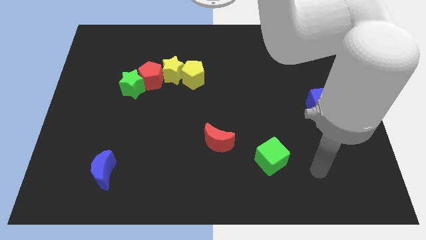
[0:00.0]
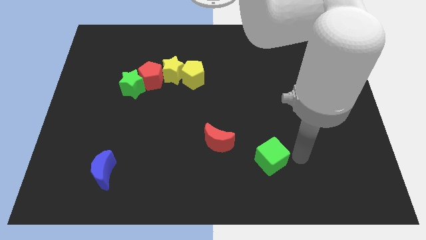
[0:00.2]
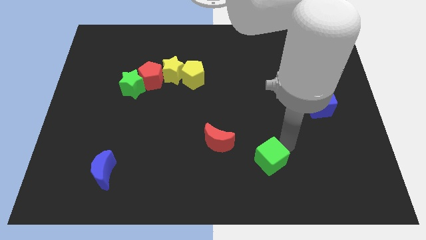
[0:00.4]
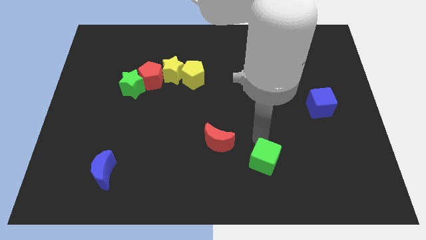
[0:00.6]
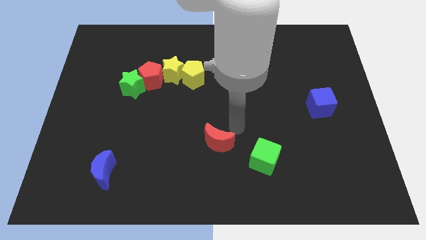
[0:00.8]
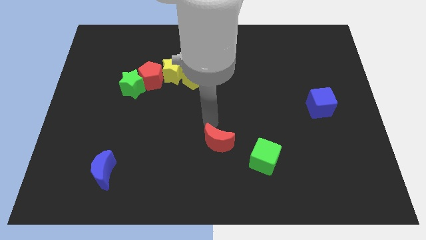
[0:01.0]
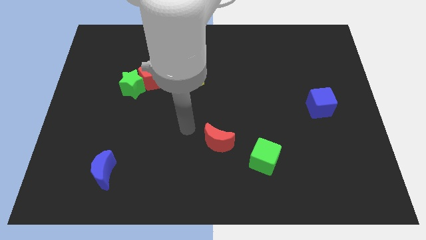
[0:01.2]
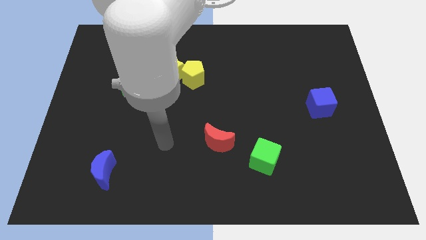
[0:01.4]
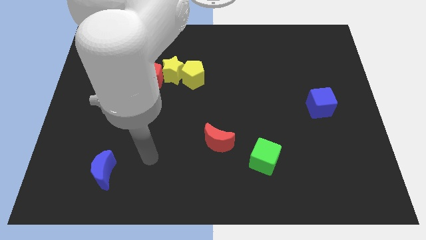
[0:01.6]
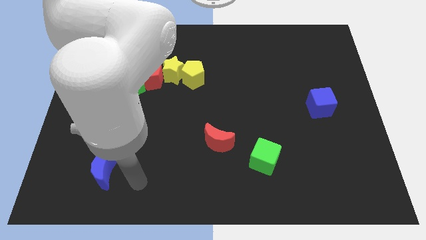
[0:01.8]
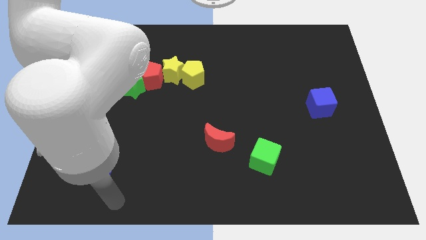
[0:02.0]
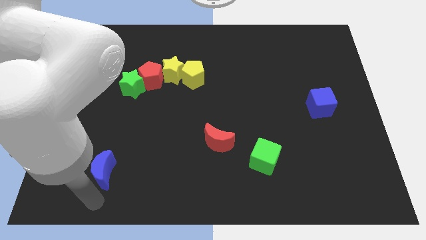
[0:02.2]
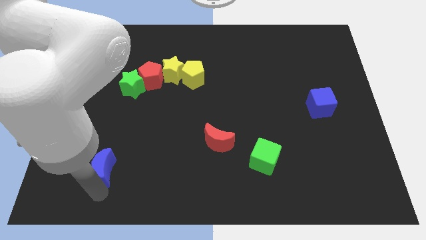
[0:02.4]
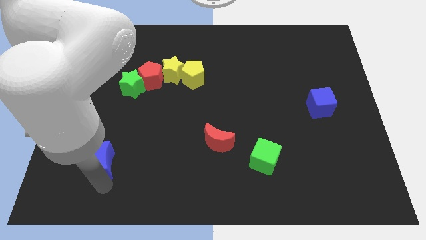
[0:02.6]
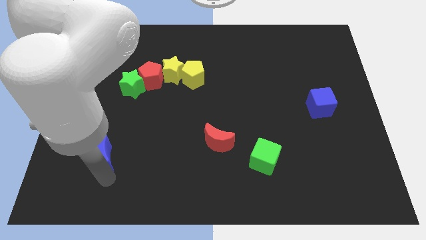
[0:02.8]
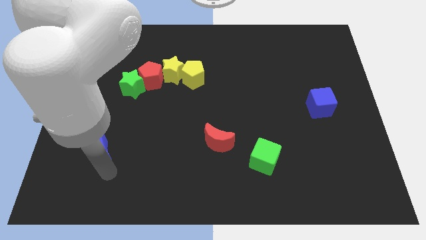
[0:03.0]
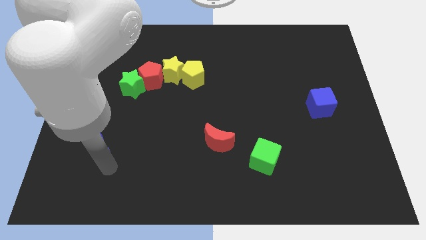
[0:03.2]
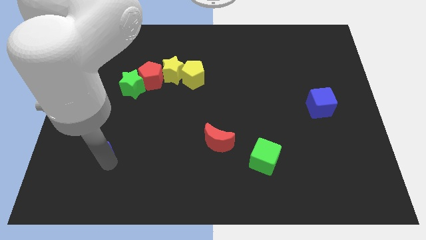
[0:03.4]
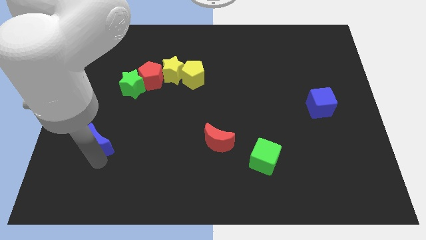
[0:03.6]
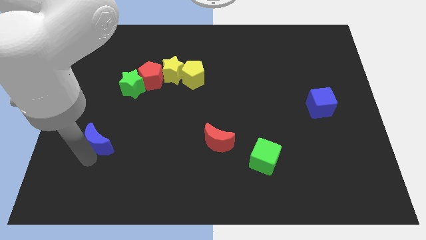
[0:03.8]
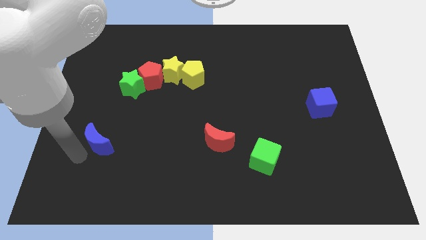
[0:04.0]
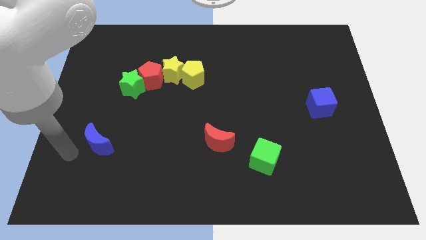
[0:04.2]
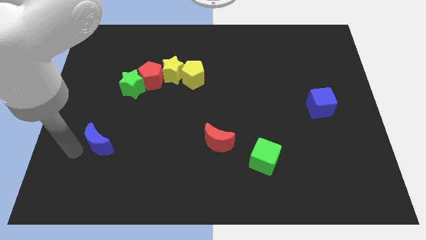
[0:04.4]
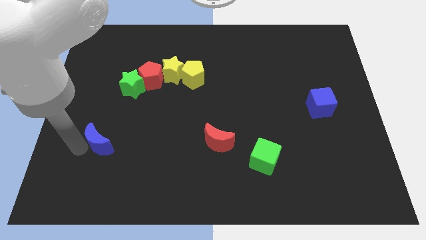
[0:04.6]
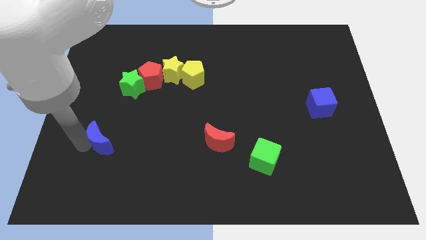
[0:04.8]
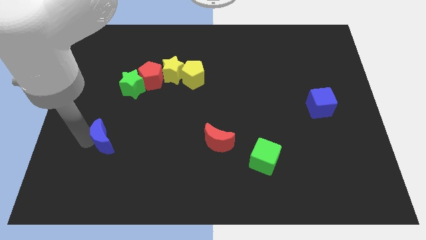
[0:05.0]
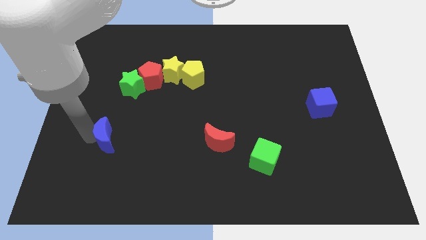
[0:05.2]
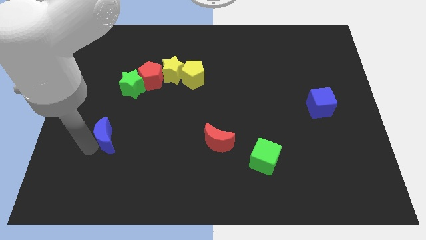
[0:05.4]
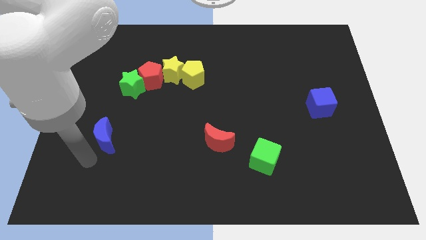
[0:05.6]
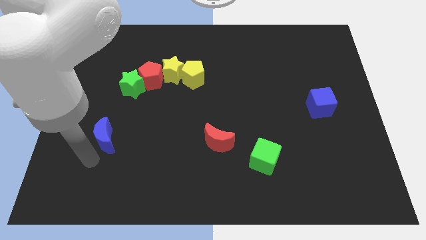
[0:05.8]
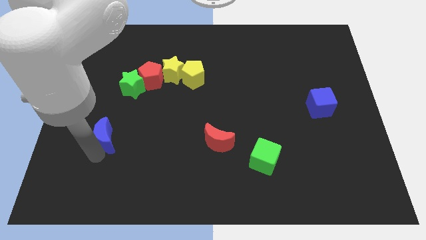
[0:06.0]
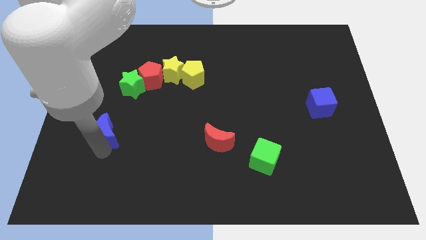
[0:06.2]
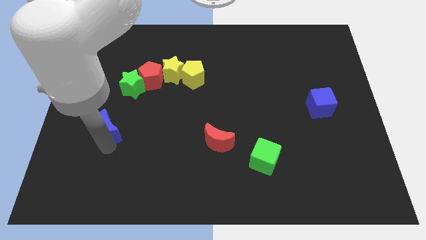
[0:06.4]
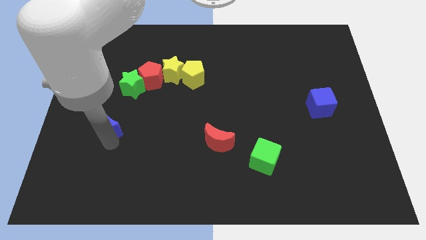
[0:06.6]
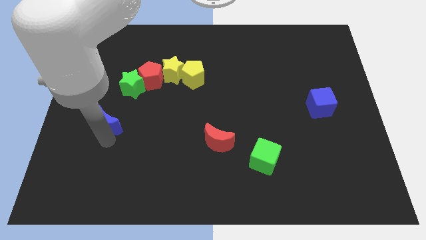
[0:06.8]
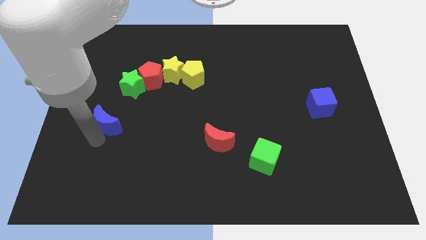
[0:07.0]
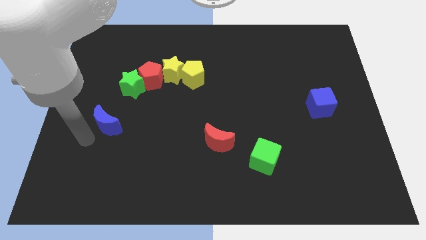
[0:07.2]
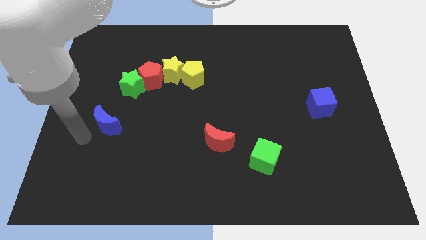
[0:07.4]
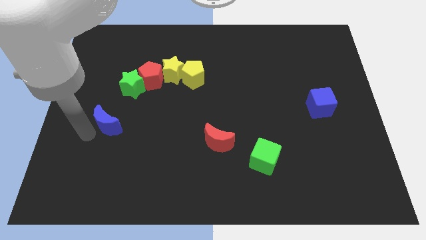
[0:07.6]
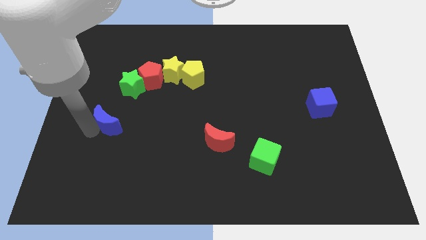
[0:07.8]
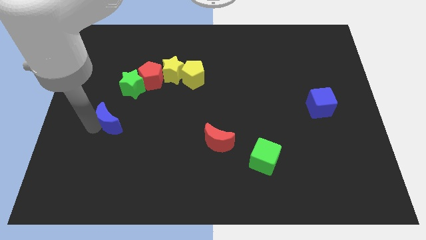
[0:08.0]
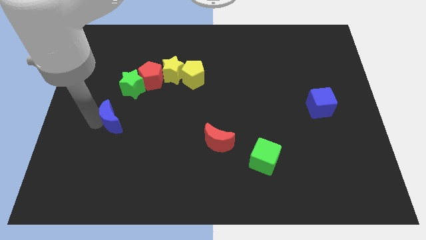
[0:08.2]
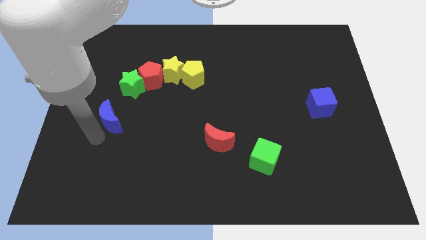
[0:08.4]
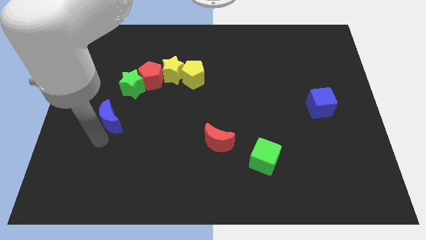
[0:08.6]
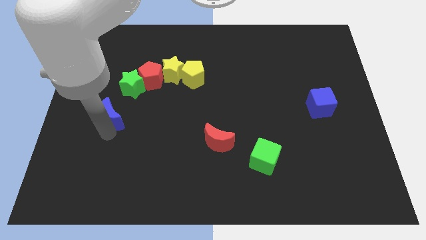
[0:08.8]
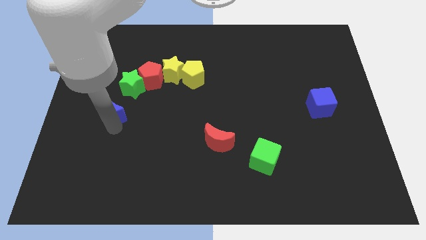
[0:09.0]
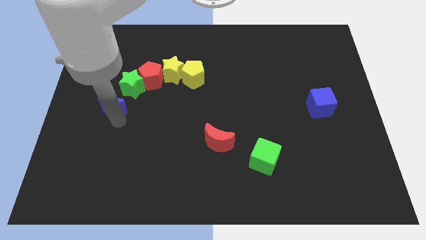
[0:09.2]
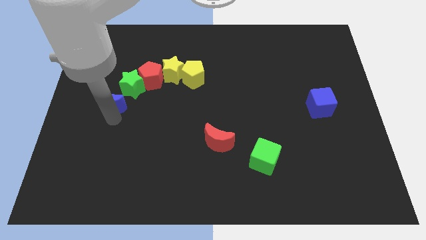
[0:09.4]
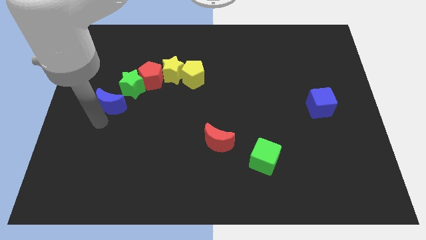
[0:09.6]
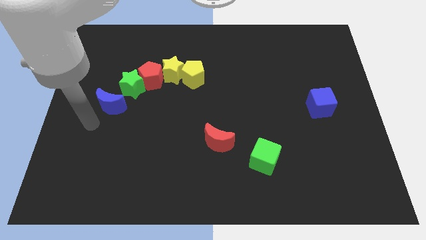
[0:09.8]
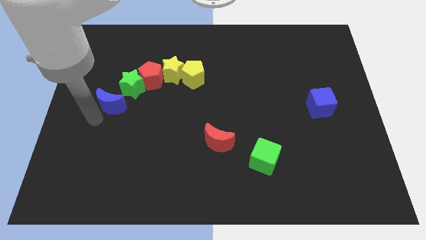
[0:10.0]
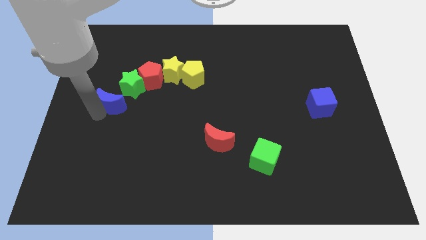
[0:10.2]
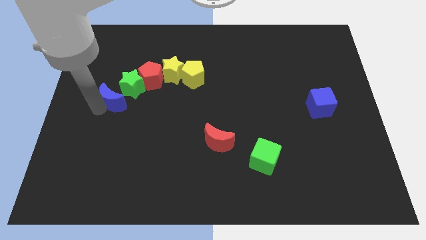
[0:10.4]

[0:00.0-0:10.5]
push the blue moon next to the green star

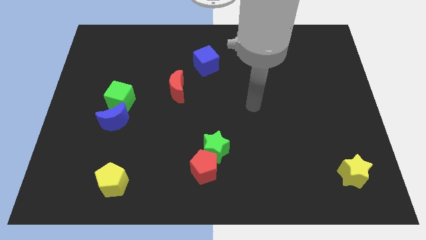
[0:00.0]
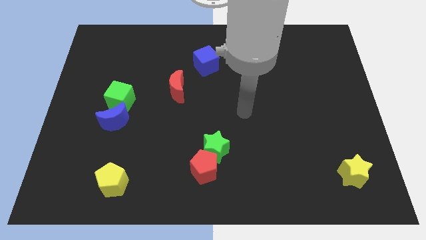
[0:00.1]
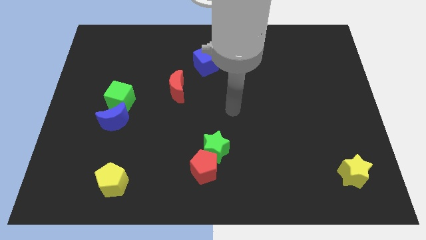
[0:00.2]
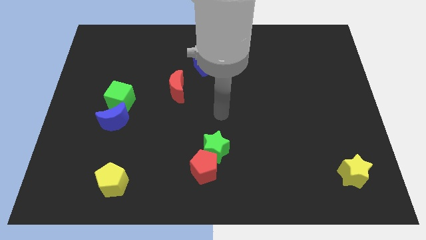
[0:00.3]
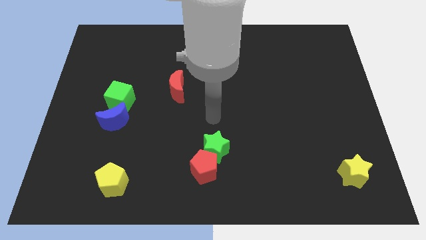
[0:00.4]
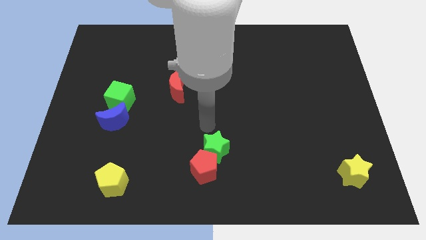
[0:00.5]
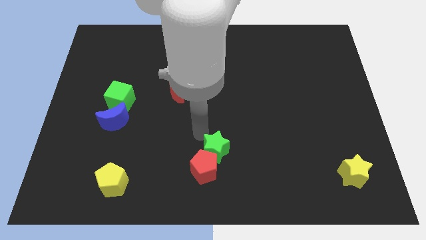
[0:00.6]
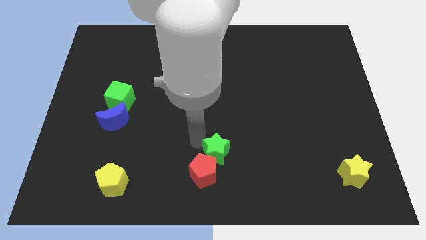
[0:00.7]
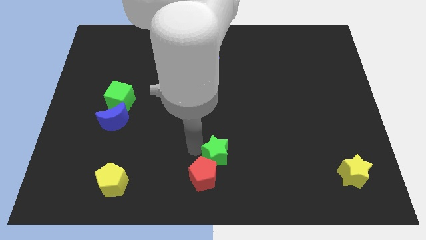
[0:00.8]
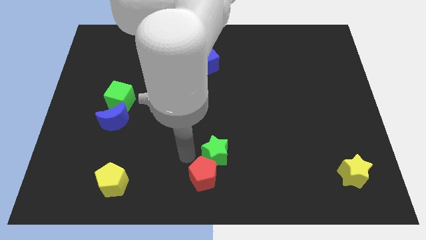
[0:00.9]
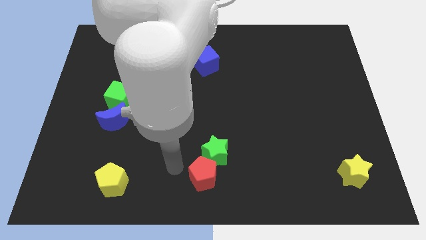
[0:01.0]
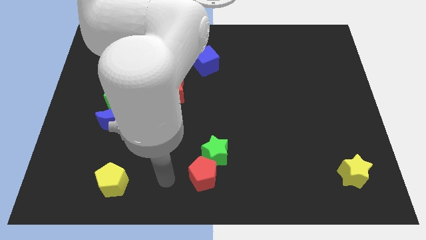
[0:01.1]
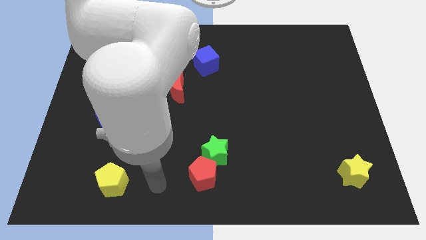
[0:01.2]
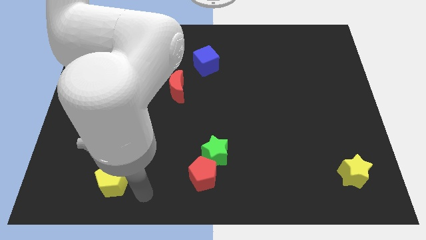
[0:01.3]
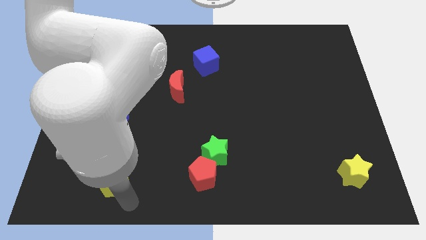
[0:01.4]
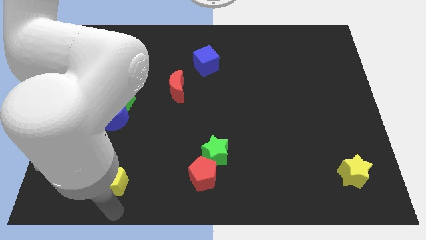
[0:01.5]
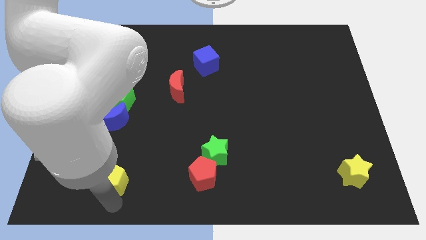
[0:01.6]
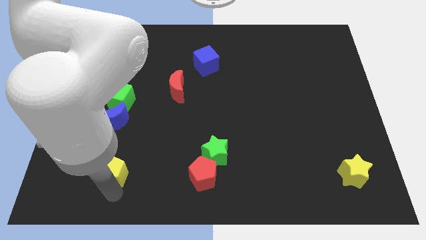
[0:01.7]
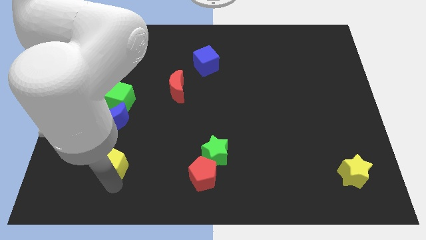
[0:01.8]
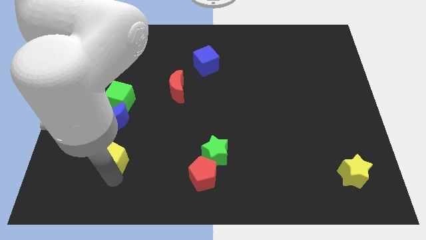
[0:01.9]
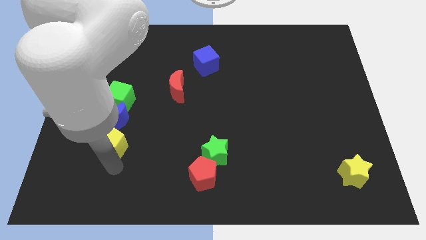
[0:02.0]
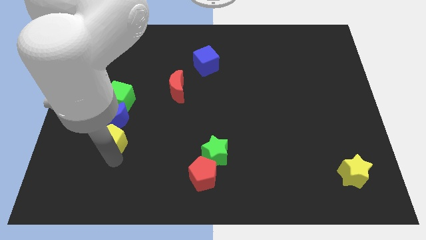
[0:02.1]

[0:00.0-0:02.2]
move the yellow pentagon to the blue moon
